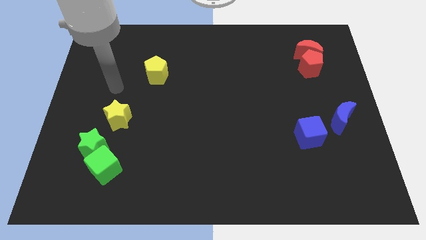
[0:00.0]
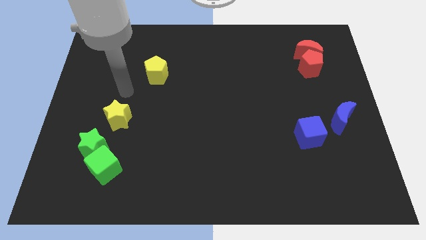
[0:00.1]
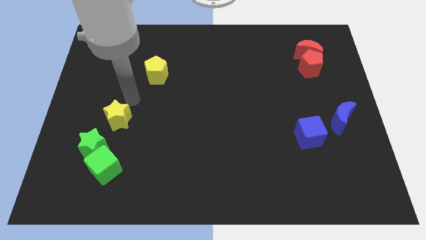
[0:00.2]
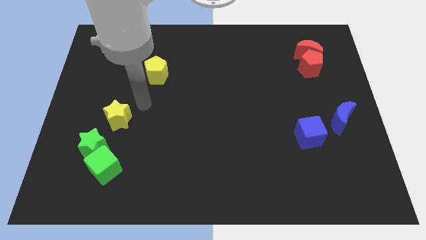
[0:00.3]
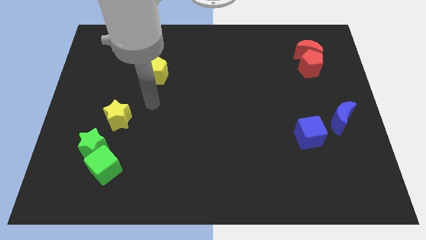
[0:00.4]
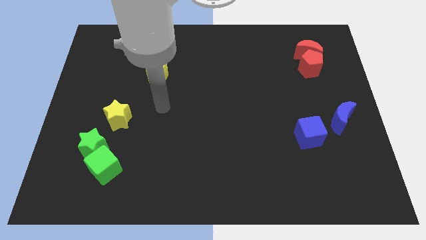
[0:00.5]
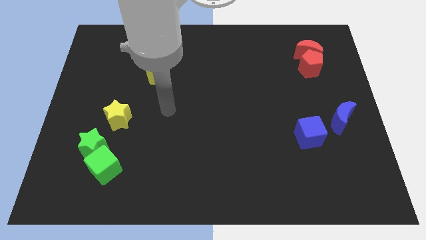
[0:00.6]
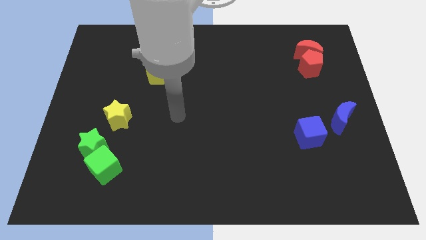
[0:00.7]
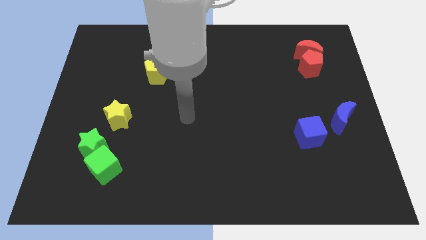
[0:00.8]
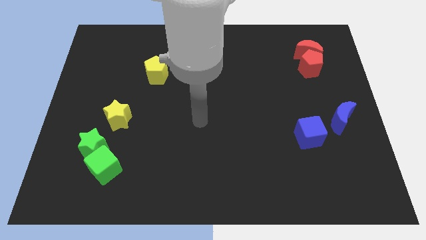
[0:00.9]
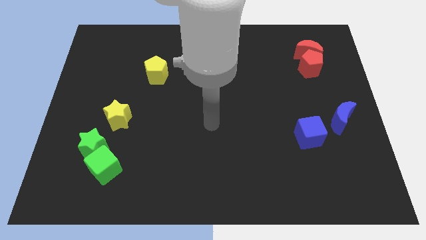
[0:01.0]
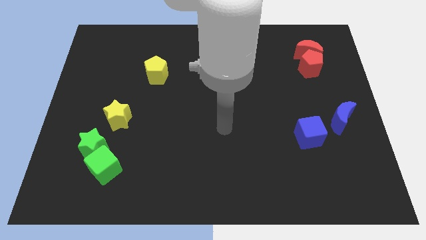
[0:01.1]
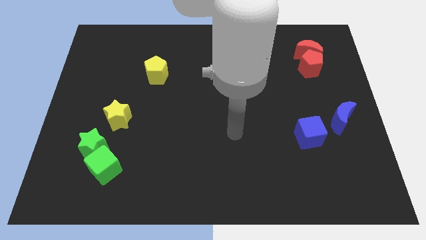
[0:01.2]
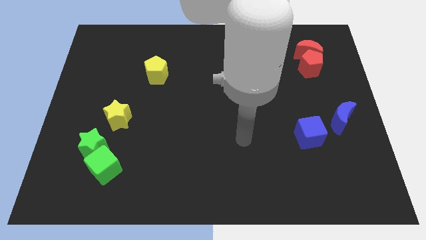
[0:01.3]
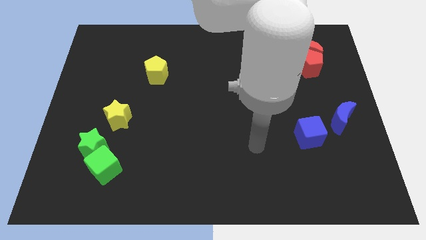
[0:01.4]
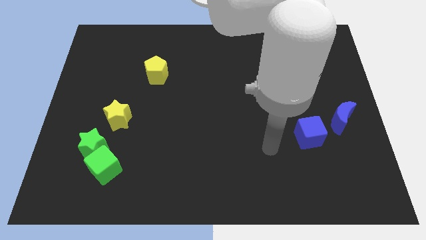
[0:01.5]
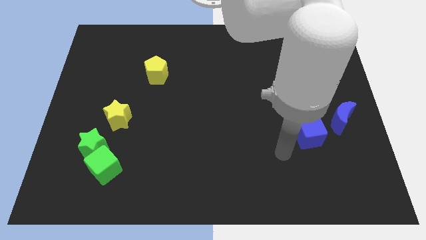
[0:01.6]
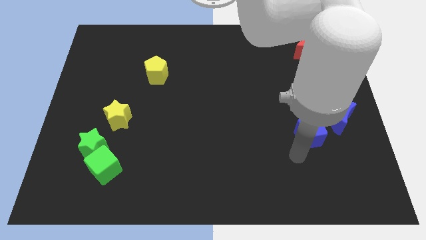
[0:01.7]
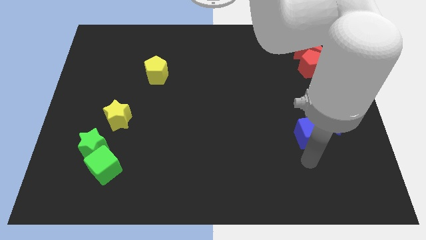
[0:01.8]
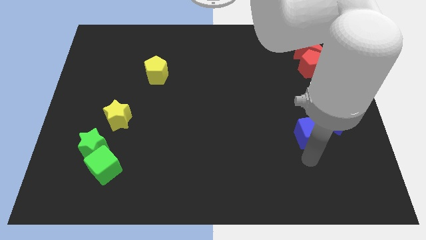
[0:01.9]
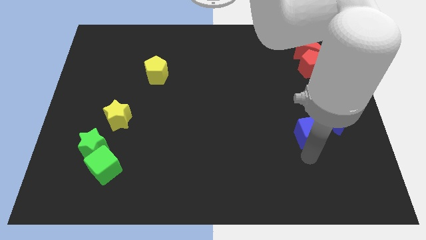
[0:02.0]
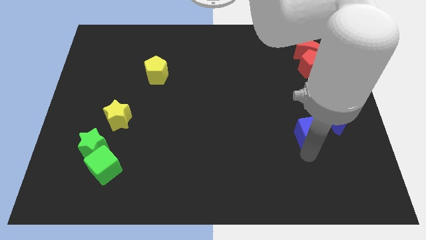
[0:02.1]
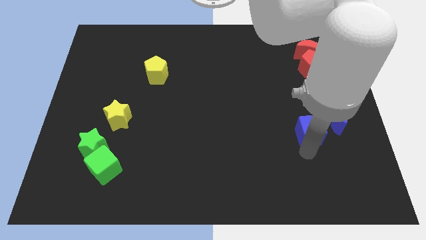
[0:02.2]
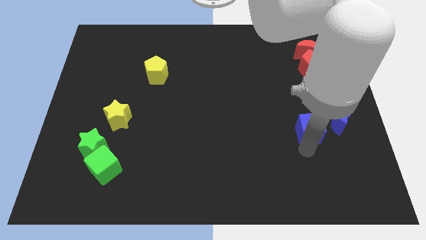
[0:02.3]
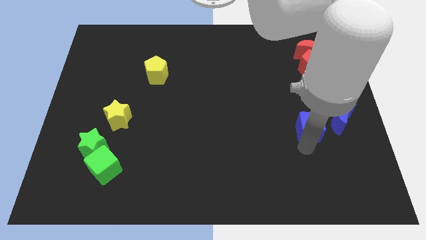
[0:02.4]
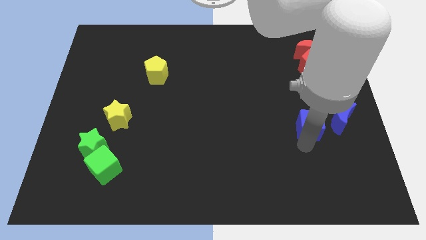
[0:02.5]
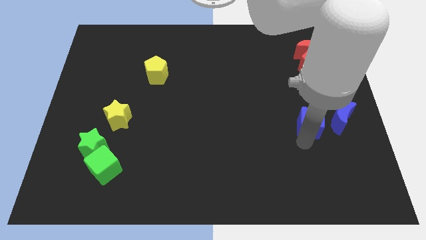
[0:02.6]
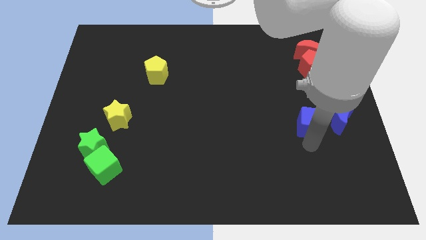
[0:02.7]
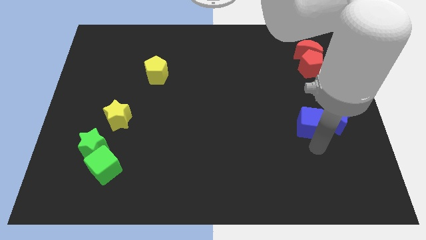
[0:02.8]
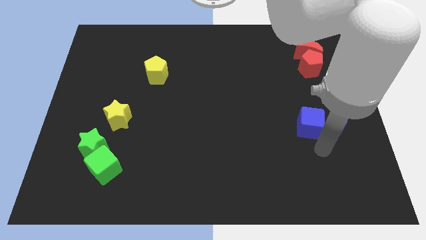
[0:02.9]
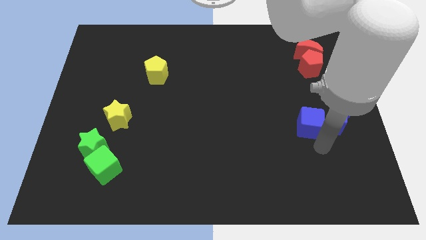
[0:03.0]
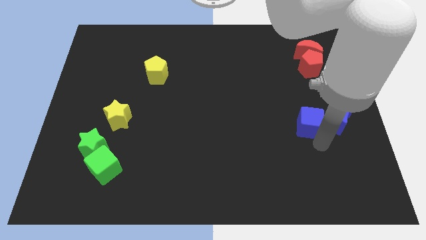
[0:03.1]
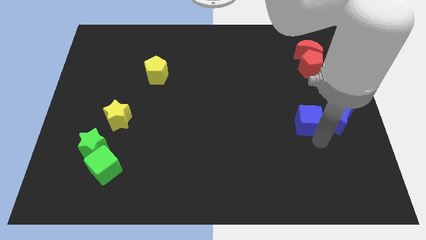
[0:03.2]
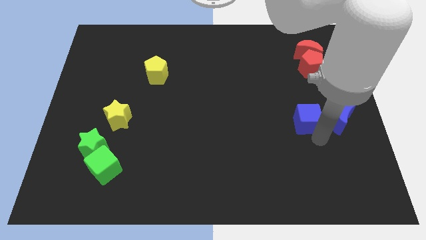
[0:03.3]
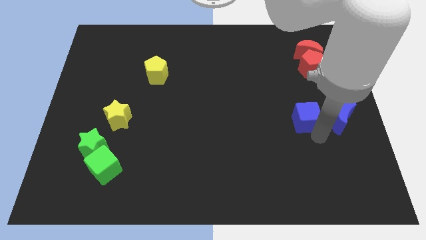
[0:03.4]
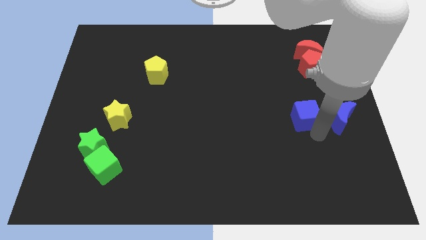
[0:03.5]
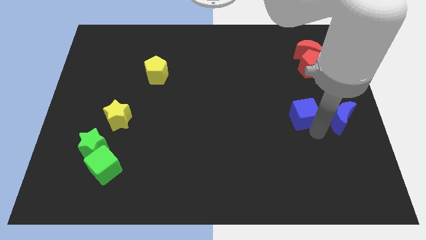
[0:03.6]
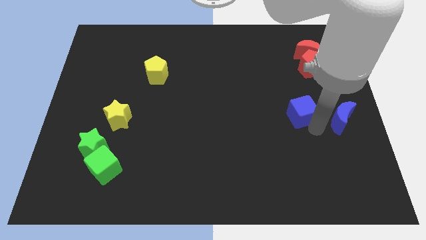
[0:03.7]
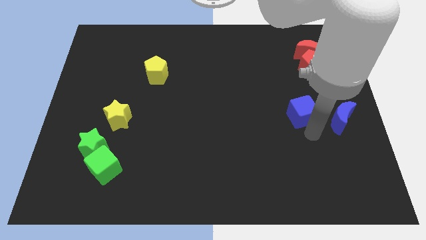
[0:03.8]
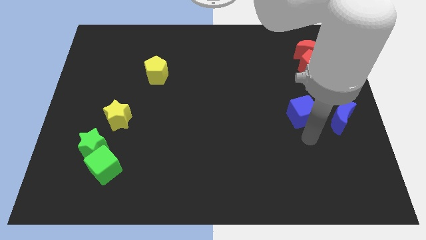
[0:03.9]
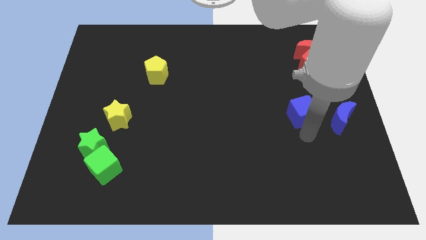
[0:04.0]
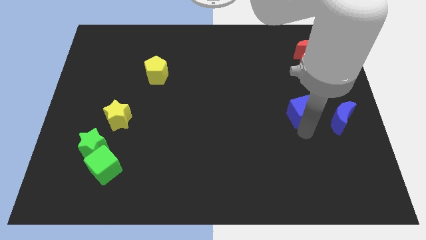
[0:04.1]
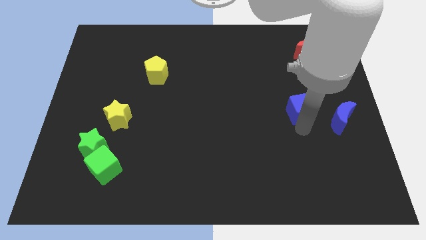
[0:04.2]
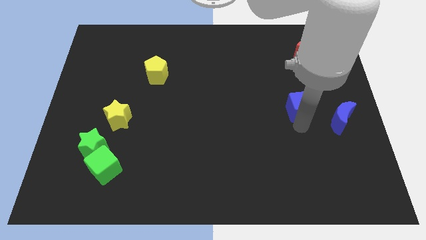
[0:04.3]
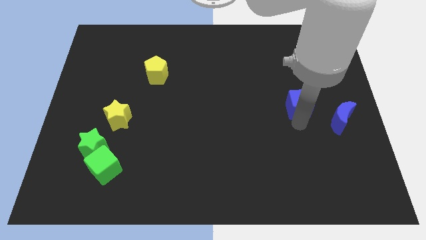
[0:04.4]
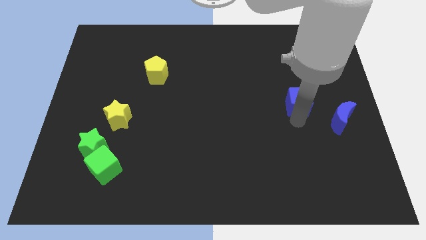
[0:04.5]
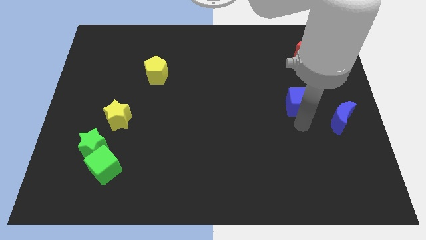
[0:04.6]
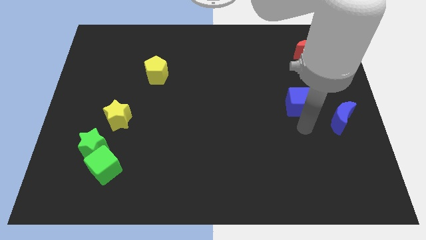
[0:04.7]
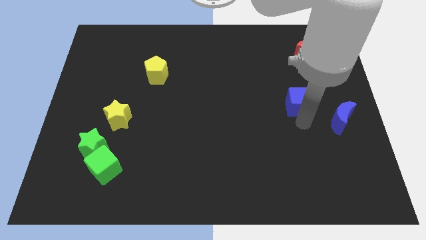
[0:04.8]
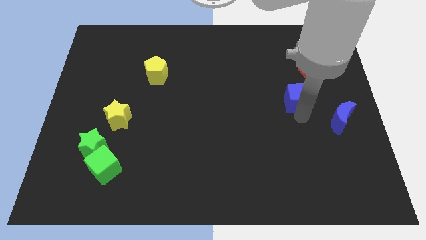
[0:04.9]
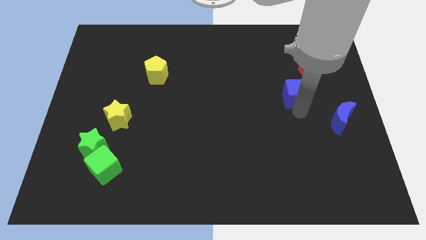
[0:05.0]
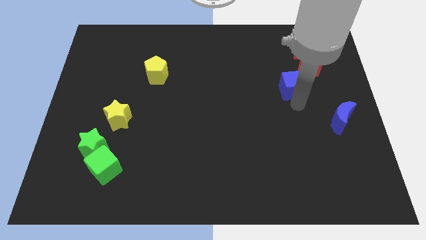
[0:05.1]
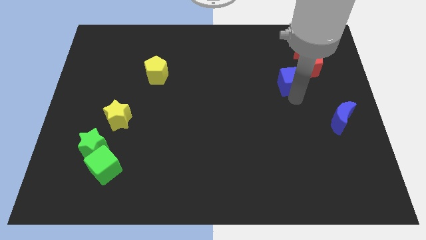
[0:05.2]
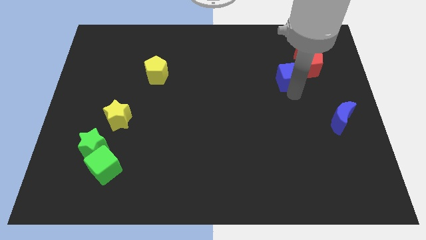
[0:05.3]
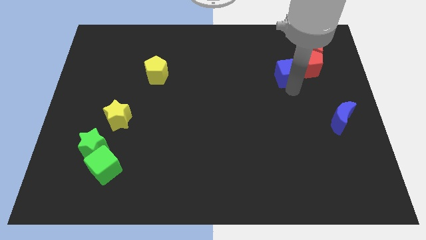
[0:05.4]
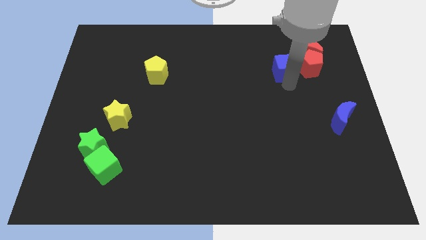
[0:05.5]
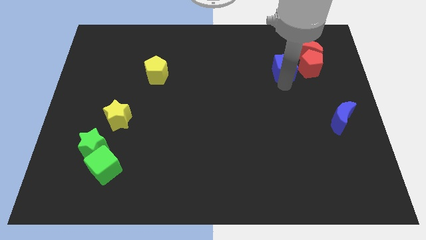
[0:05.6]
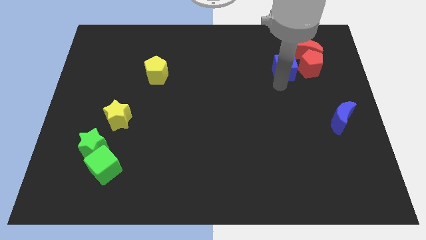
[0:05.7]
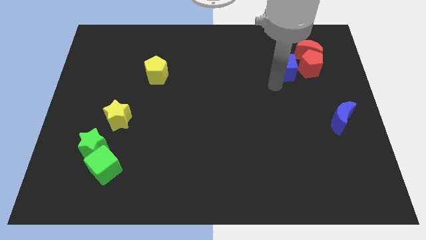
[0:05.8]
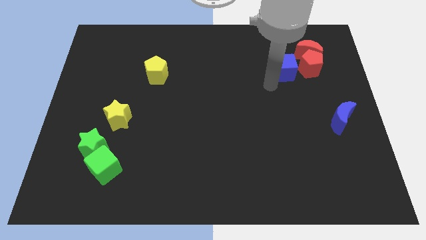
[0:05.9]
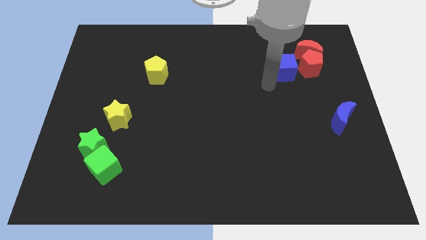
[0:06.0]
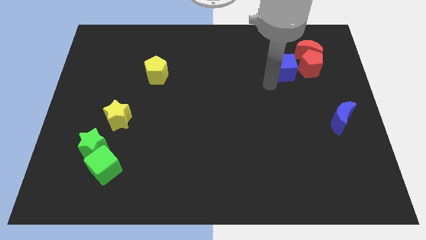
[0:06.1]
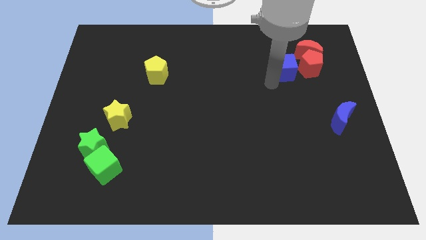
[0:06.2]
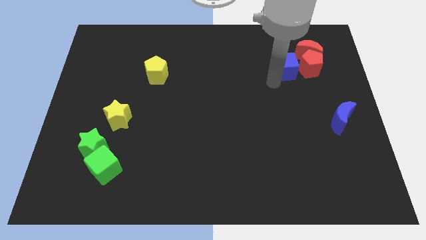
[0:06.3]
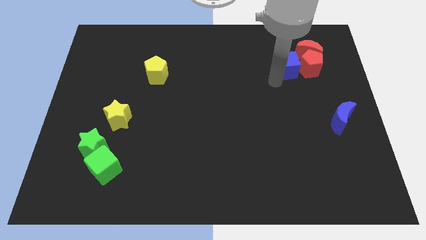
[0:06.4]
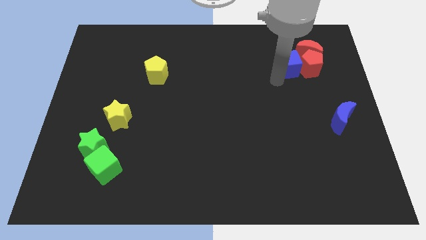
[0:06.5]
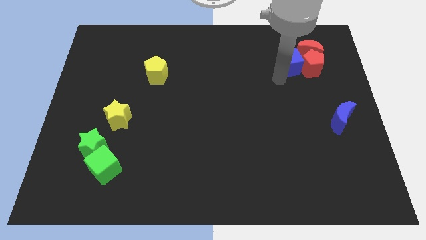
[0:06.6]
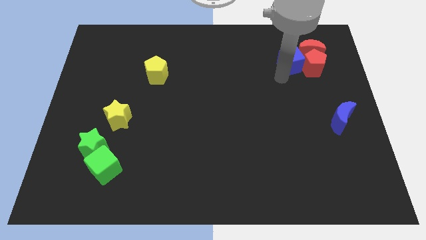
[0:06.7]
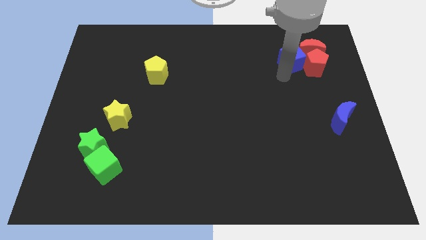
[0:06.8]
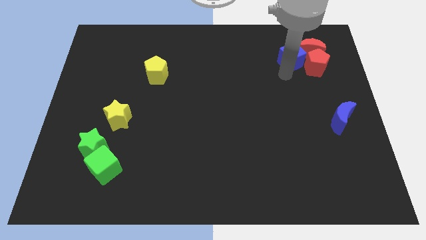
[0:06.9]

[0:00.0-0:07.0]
move the blue cube towards the red moon
